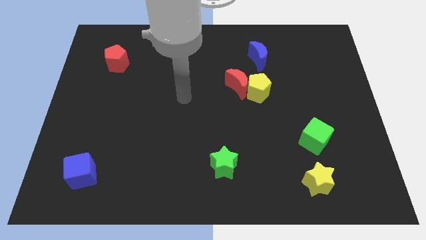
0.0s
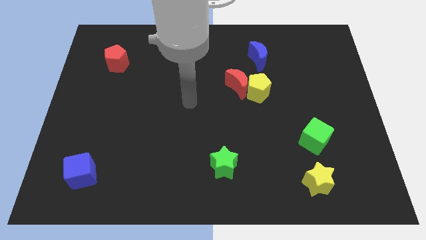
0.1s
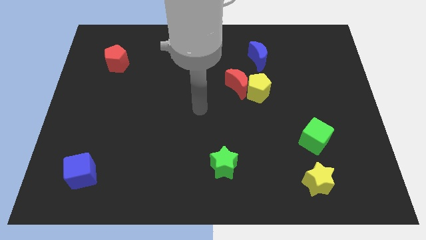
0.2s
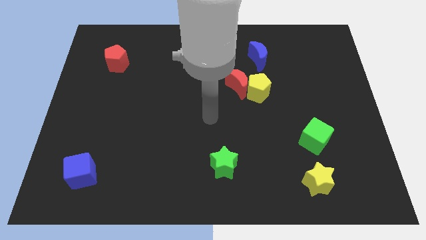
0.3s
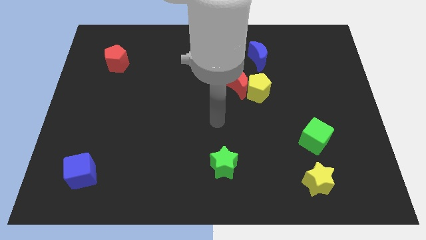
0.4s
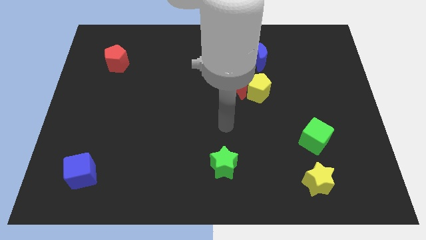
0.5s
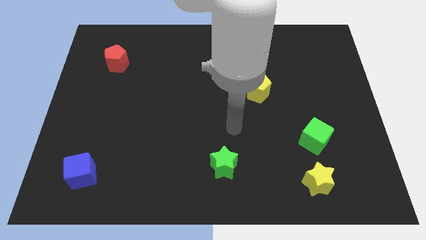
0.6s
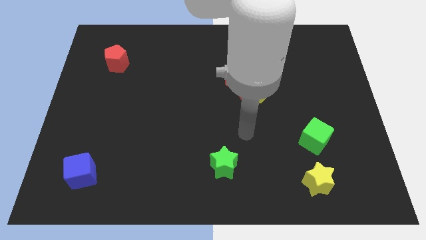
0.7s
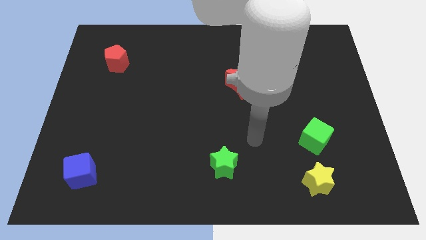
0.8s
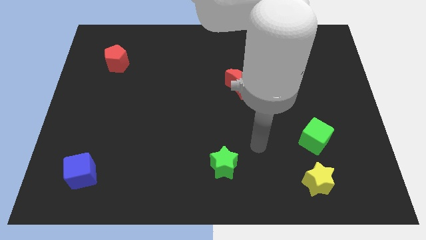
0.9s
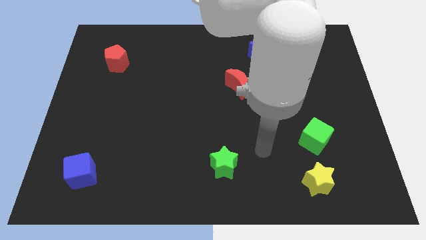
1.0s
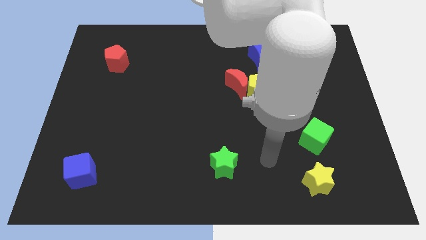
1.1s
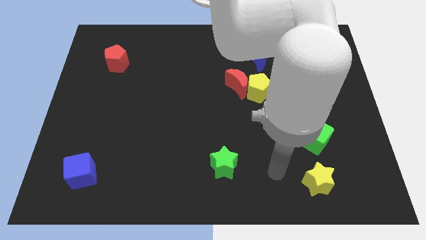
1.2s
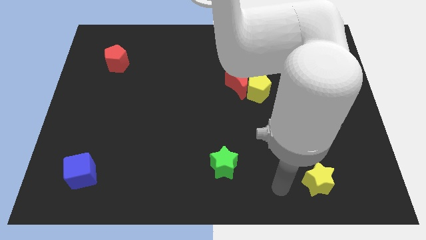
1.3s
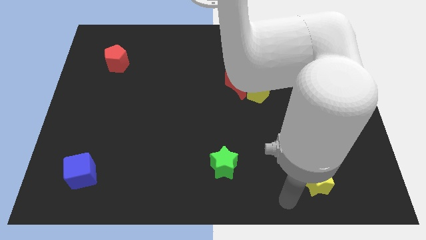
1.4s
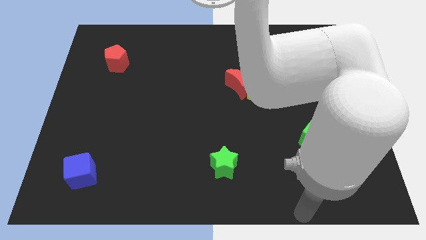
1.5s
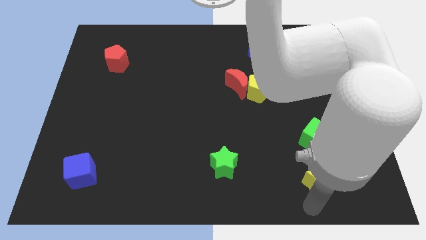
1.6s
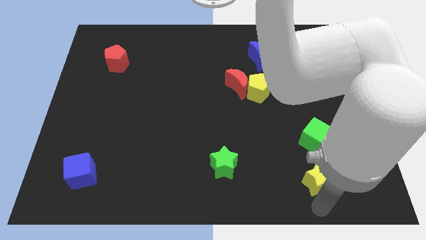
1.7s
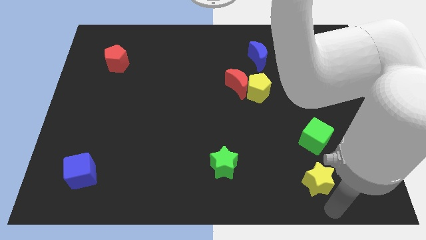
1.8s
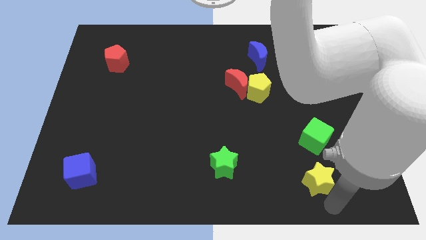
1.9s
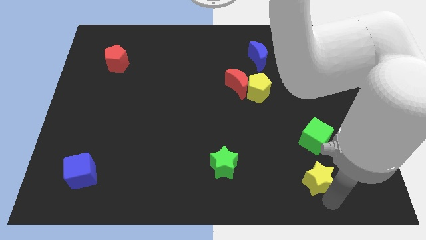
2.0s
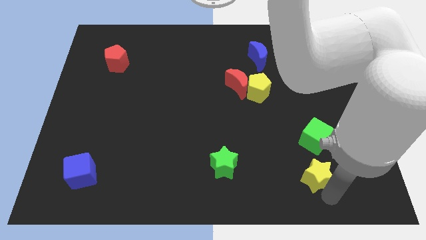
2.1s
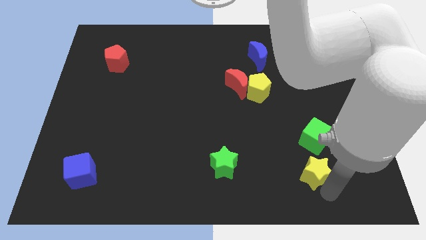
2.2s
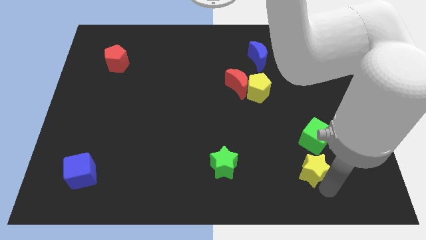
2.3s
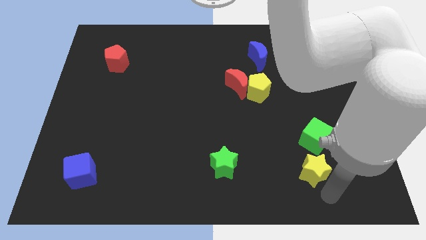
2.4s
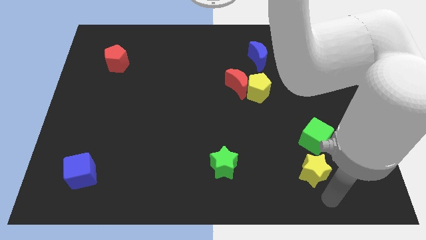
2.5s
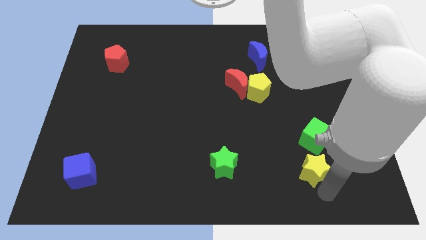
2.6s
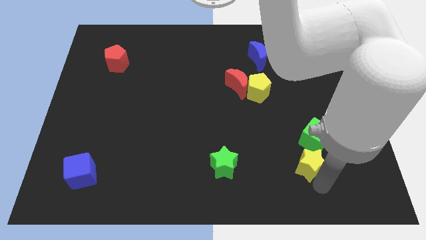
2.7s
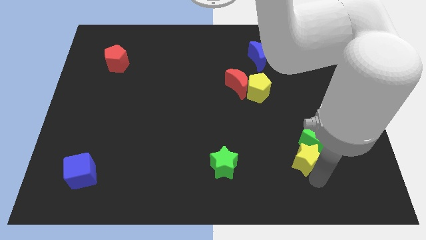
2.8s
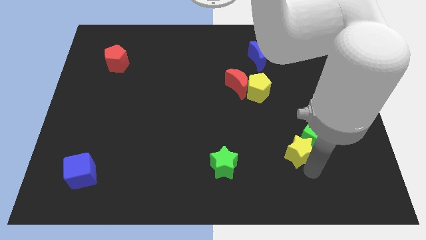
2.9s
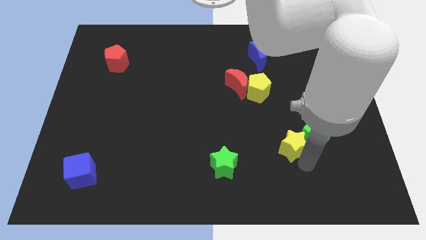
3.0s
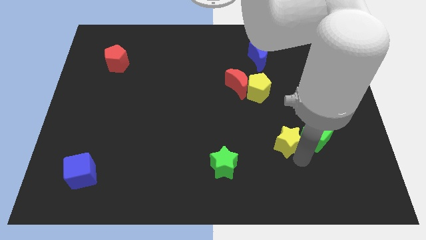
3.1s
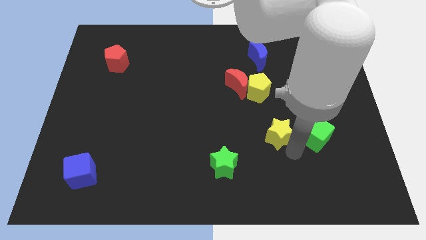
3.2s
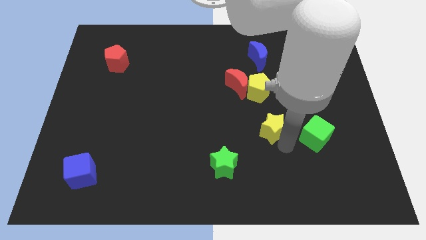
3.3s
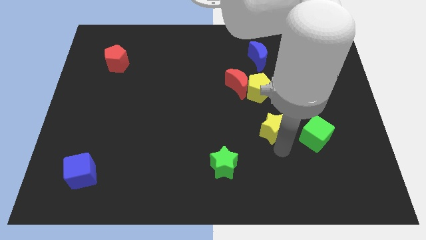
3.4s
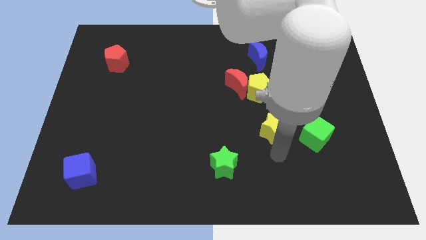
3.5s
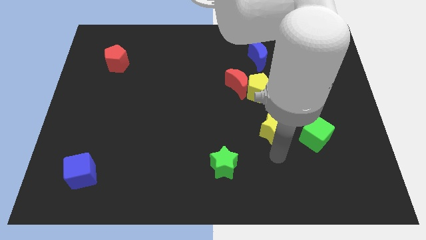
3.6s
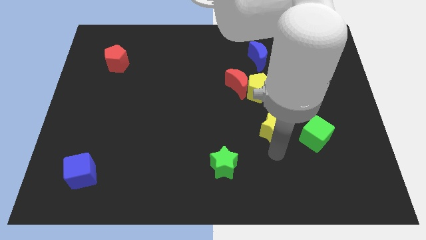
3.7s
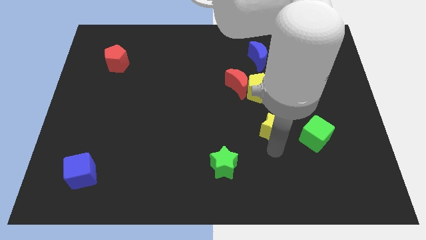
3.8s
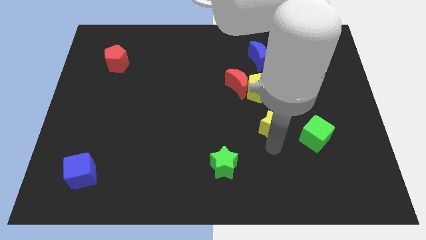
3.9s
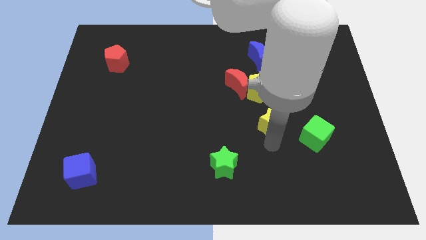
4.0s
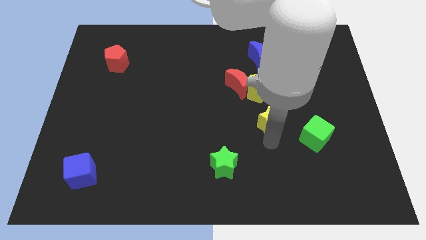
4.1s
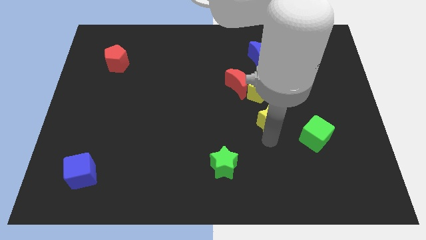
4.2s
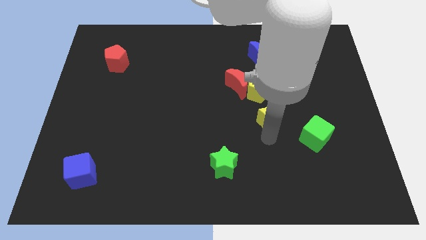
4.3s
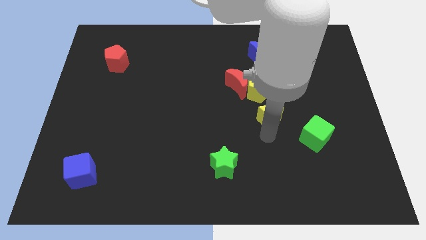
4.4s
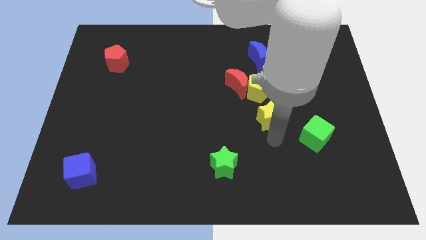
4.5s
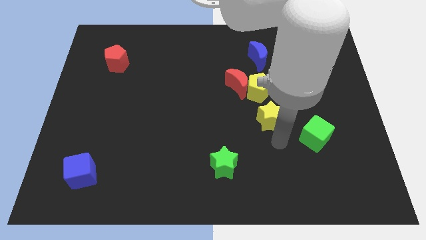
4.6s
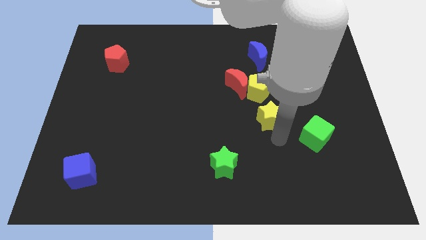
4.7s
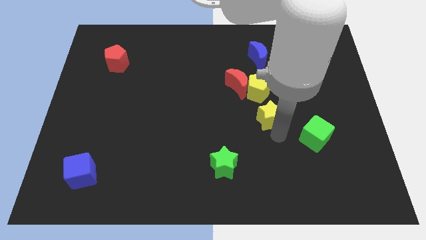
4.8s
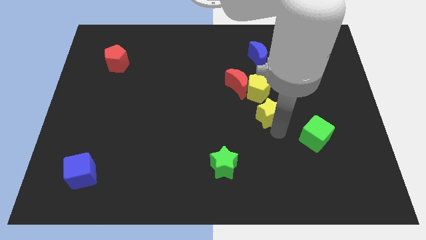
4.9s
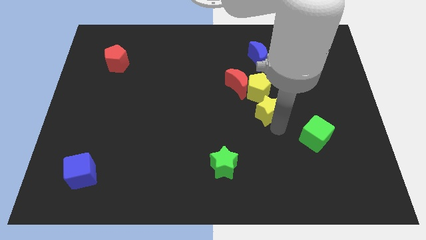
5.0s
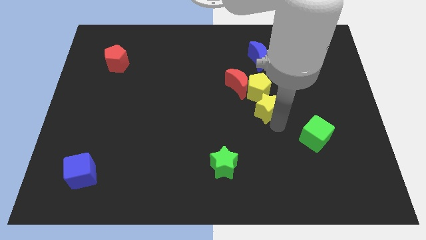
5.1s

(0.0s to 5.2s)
slide the yellow star to the yellow pentagon

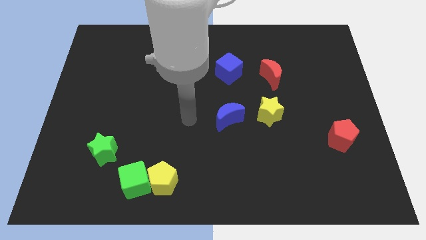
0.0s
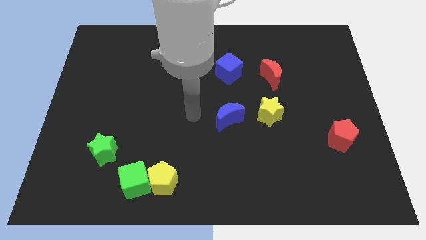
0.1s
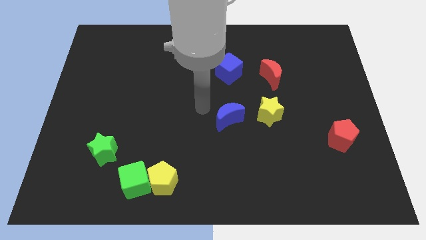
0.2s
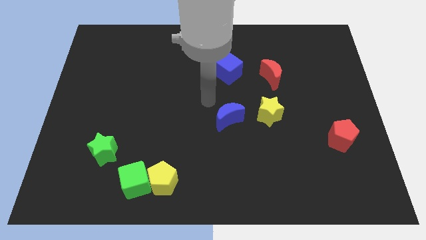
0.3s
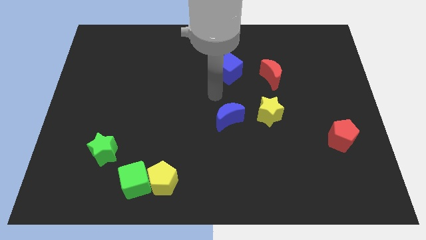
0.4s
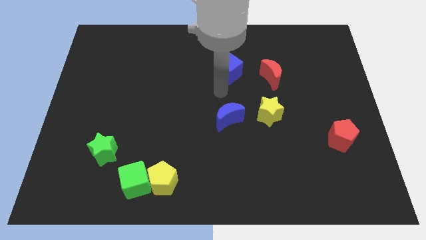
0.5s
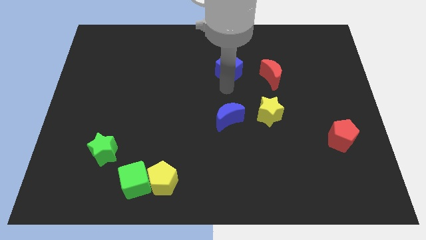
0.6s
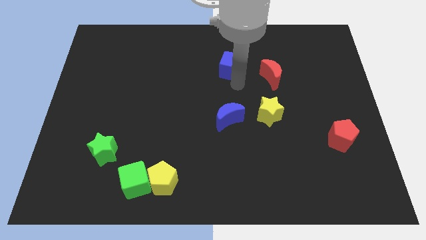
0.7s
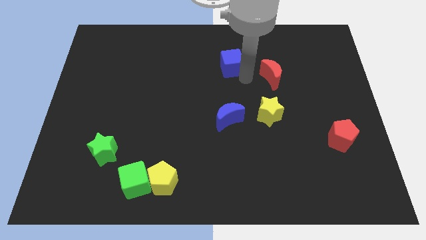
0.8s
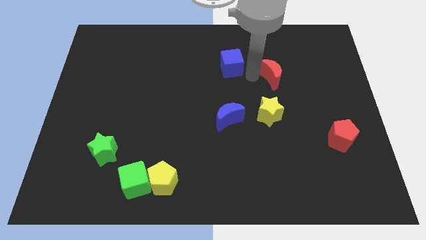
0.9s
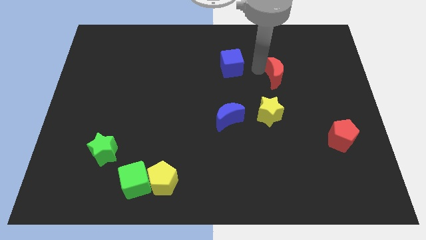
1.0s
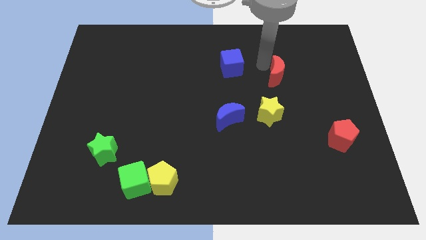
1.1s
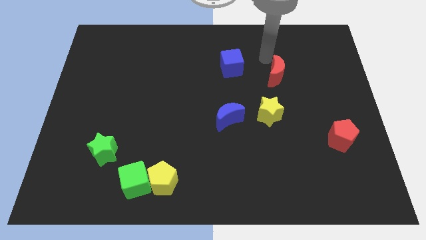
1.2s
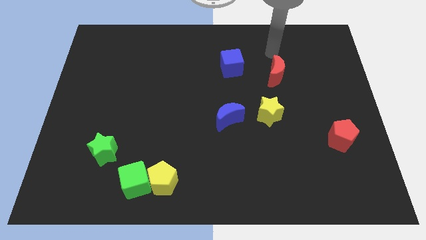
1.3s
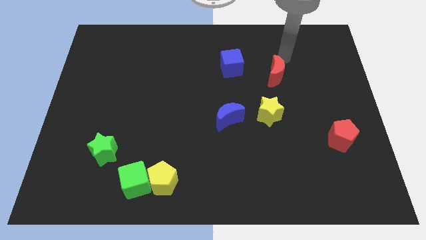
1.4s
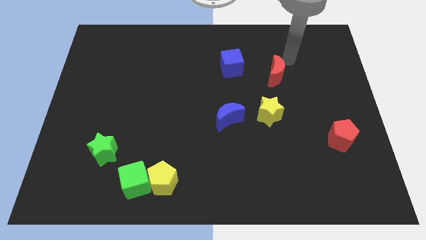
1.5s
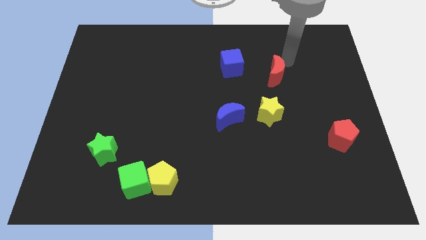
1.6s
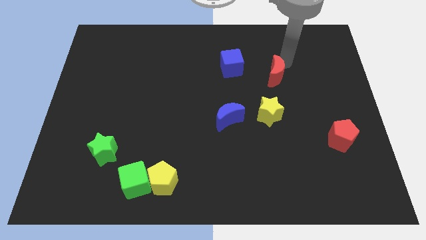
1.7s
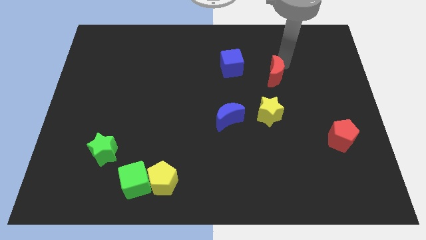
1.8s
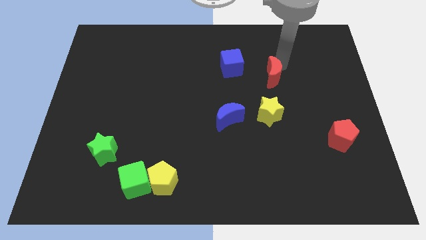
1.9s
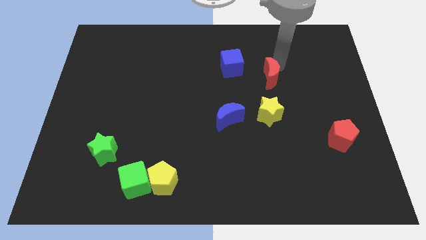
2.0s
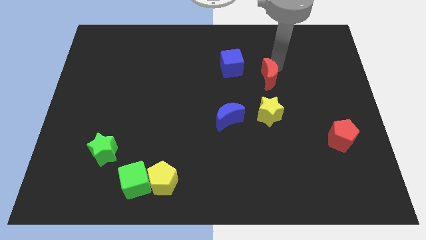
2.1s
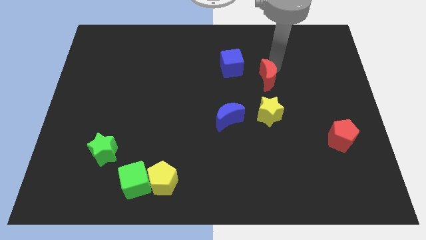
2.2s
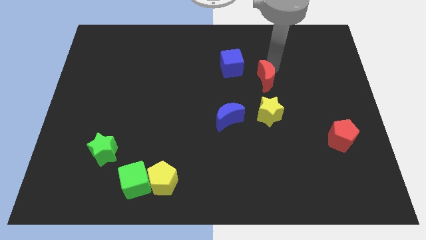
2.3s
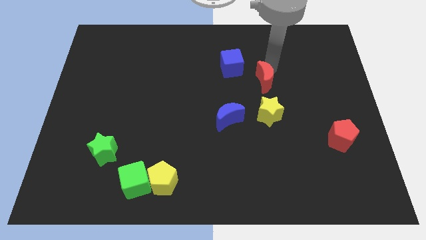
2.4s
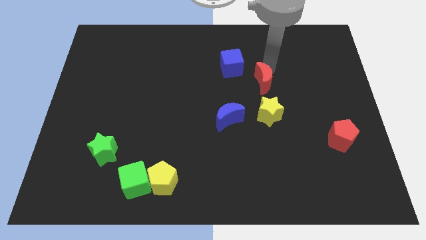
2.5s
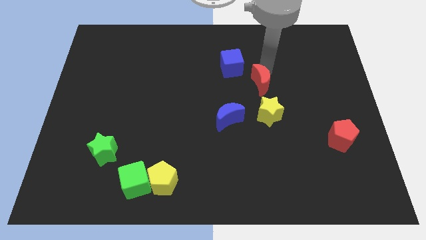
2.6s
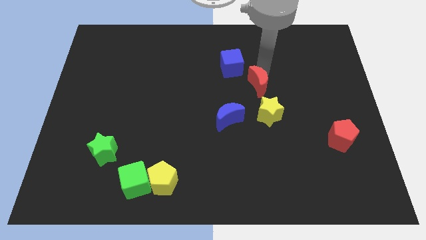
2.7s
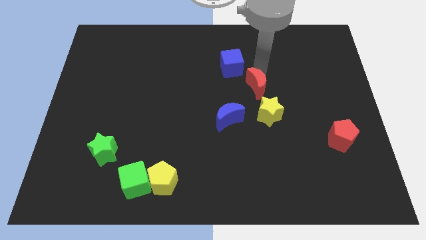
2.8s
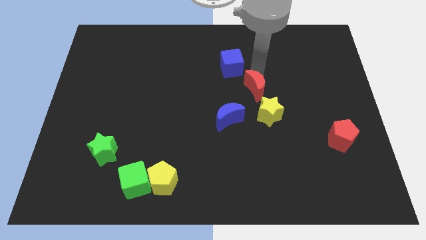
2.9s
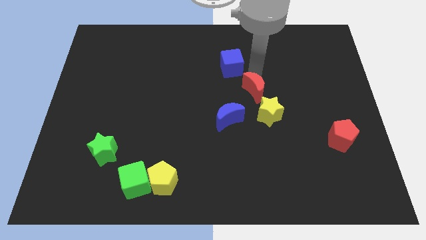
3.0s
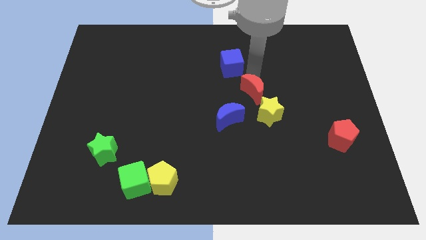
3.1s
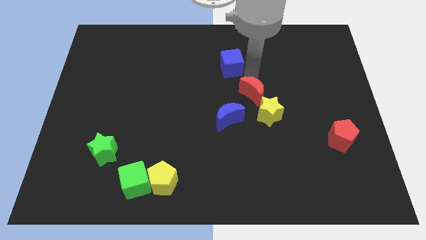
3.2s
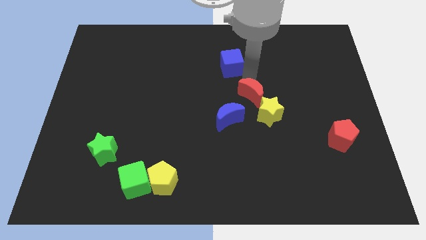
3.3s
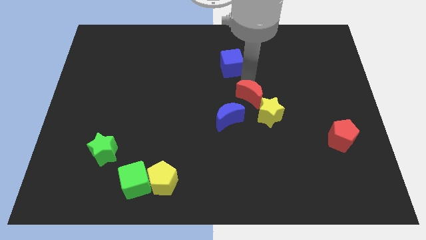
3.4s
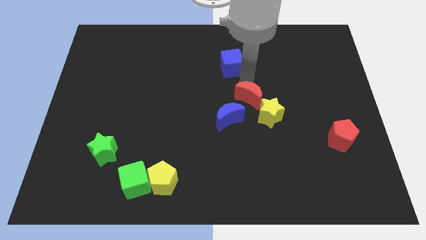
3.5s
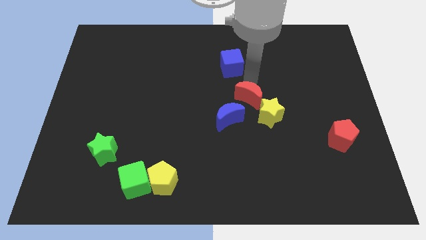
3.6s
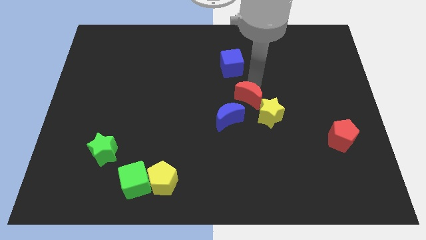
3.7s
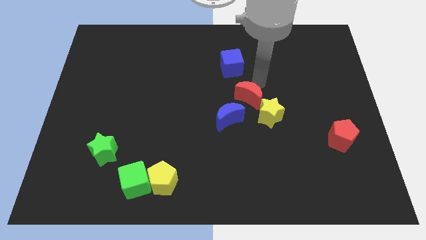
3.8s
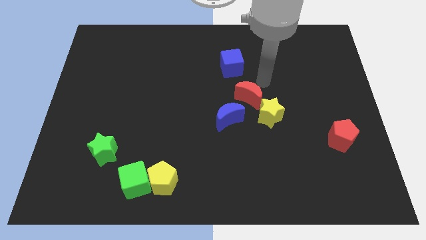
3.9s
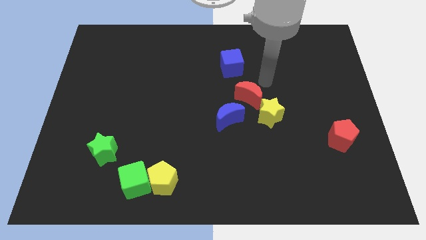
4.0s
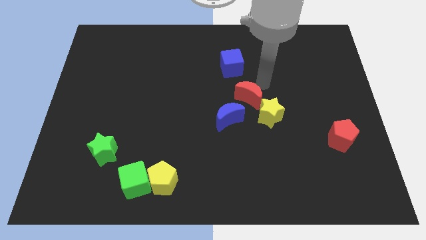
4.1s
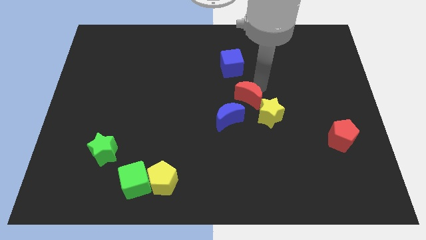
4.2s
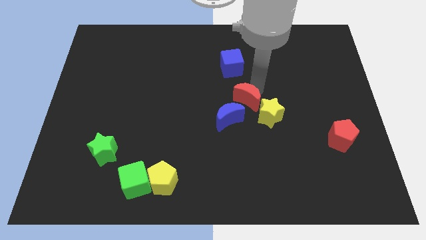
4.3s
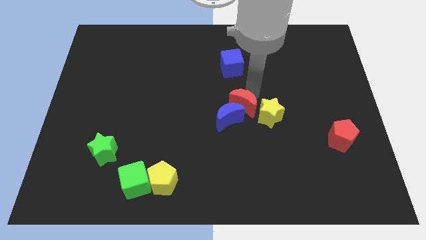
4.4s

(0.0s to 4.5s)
put the red moon to the blue moon
